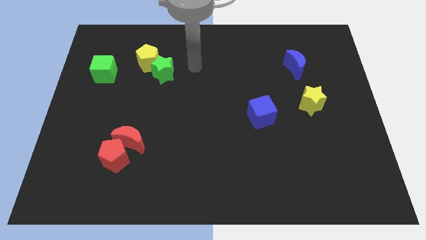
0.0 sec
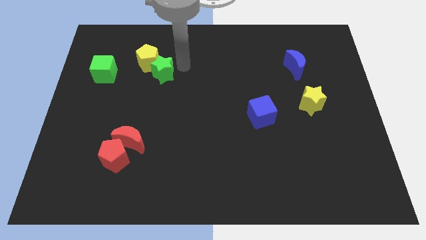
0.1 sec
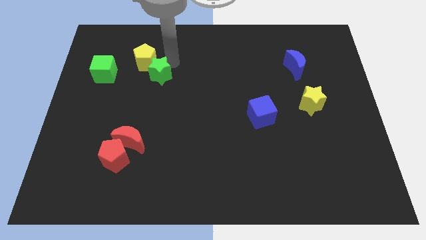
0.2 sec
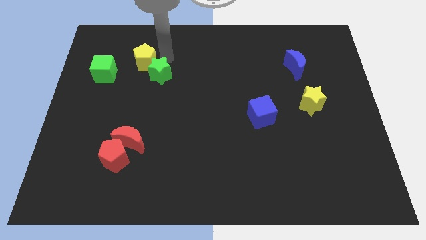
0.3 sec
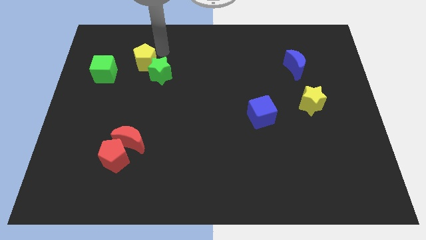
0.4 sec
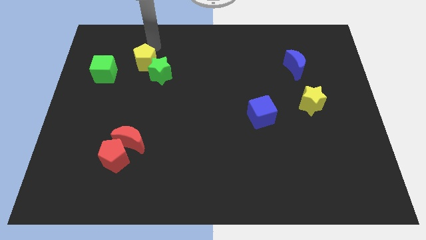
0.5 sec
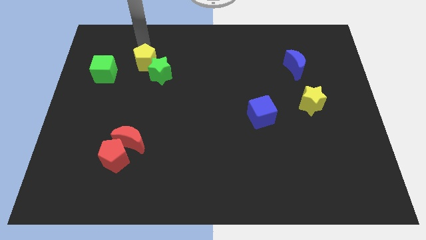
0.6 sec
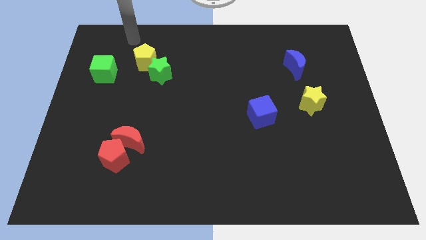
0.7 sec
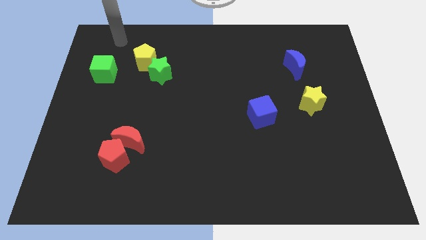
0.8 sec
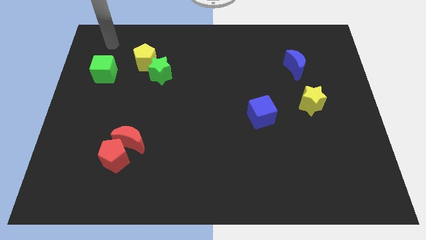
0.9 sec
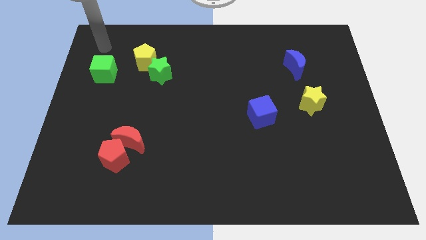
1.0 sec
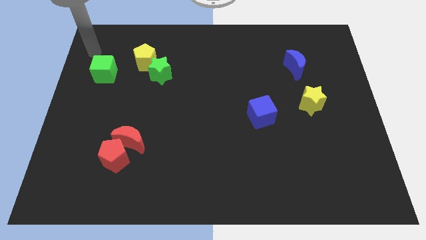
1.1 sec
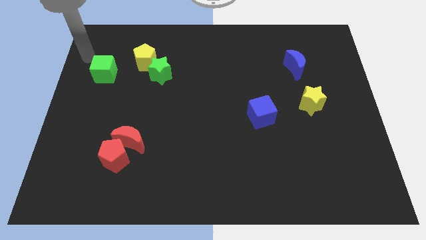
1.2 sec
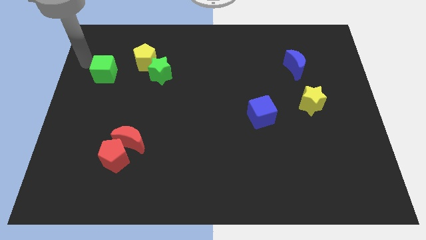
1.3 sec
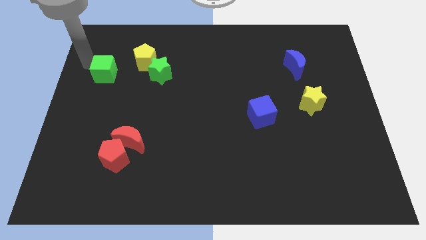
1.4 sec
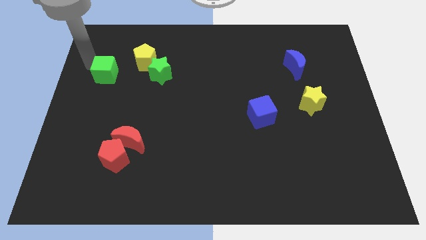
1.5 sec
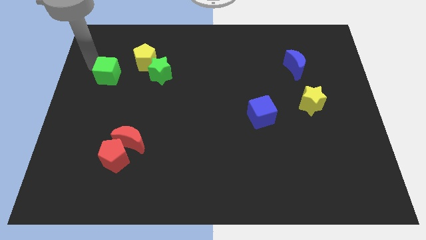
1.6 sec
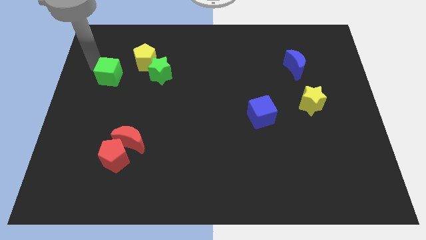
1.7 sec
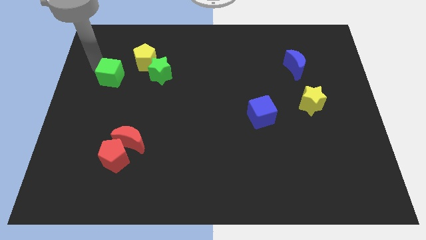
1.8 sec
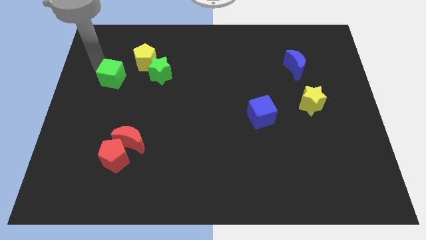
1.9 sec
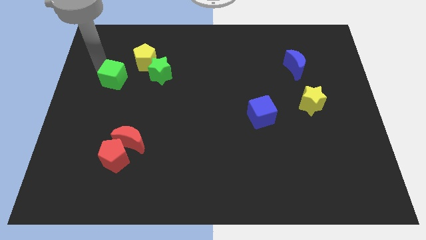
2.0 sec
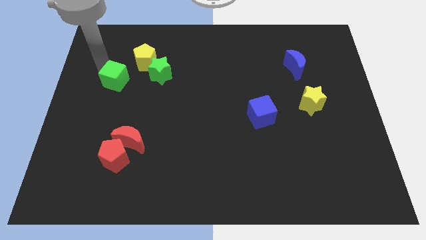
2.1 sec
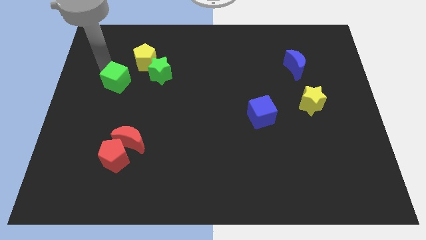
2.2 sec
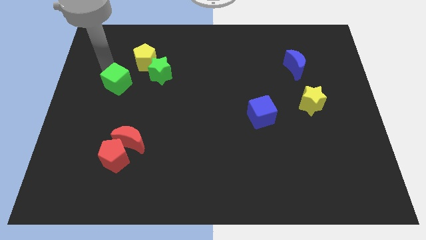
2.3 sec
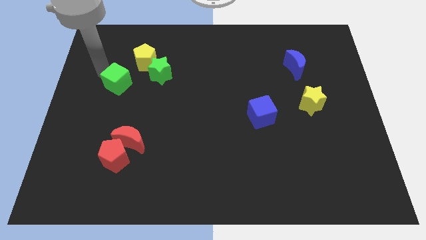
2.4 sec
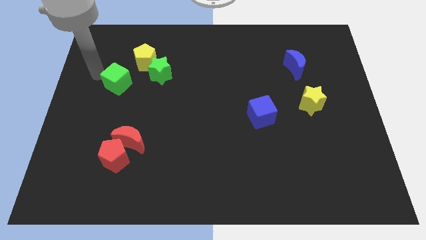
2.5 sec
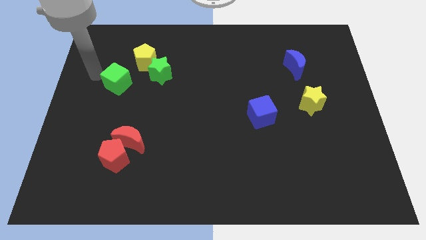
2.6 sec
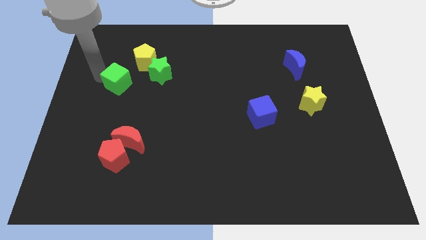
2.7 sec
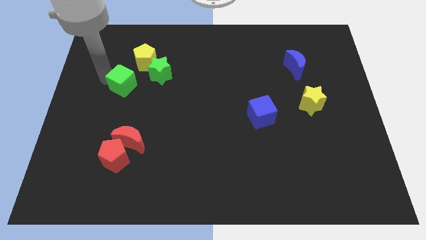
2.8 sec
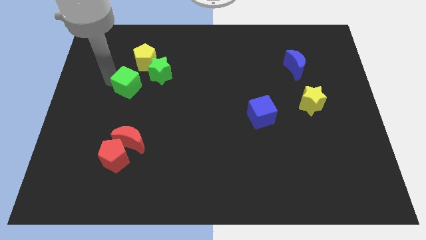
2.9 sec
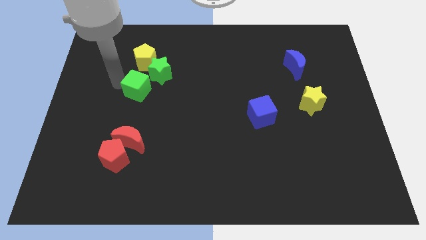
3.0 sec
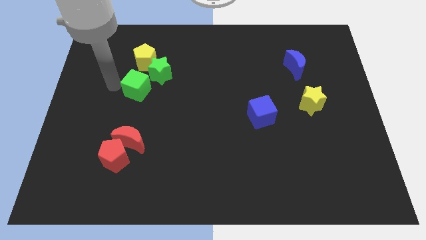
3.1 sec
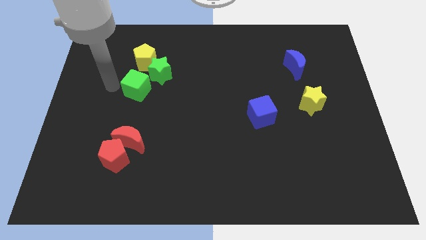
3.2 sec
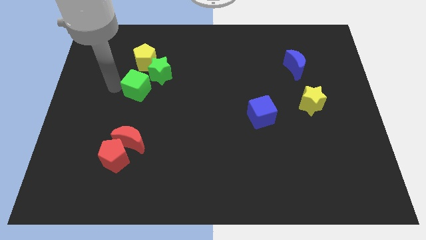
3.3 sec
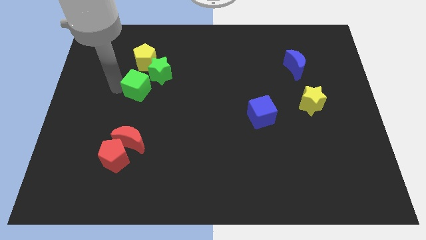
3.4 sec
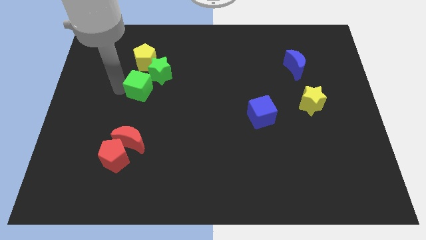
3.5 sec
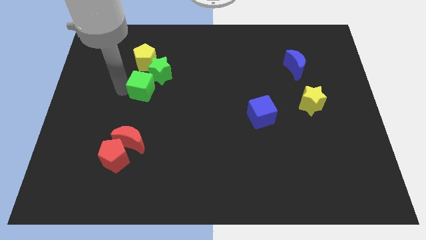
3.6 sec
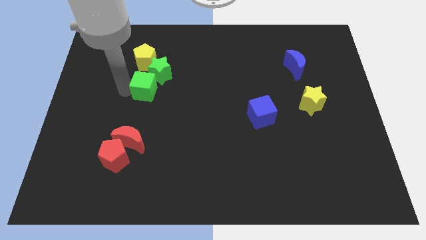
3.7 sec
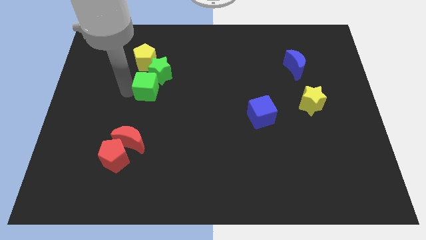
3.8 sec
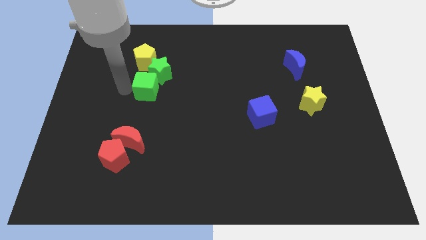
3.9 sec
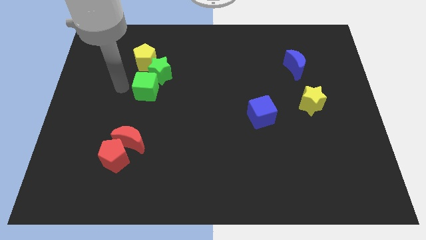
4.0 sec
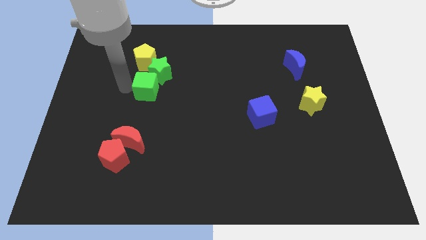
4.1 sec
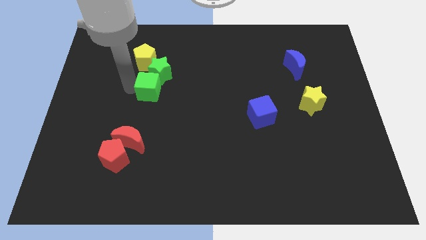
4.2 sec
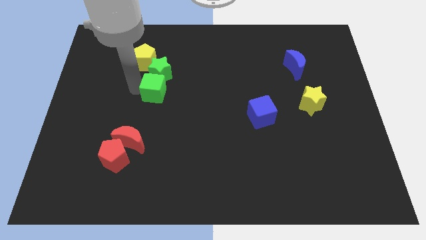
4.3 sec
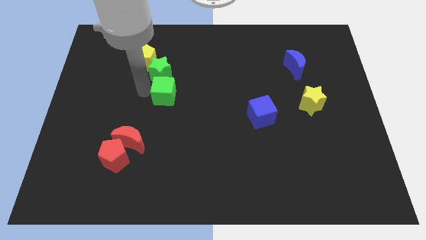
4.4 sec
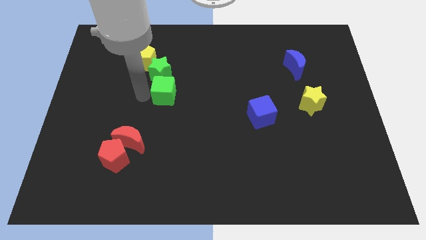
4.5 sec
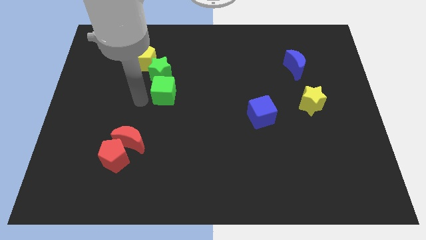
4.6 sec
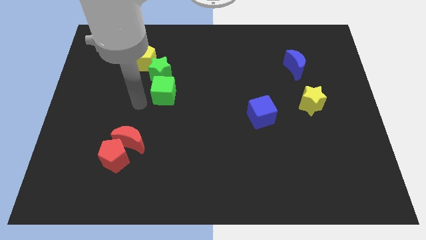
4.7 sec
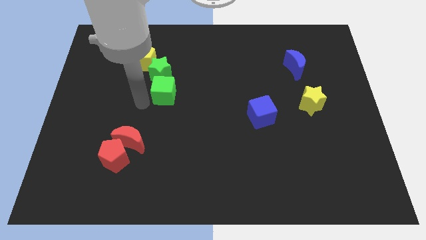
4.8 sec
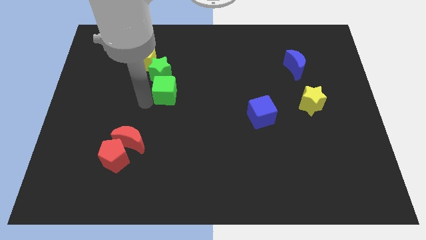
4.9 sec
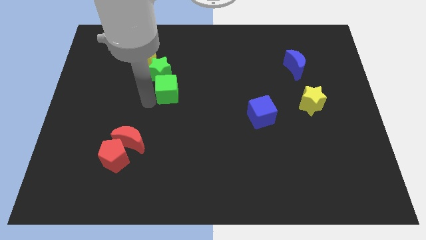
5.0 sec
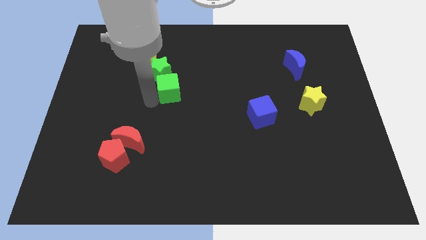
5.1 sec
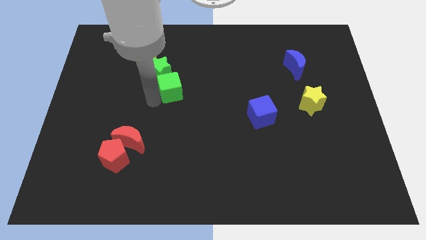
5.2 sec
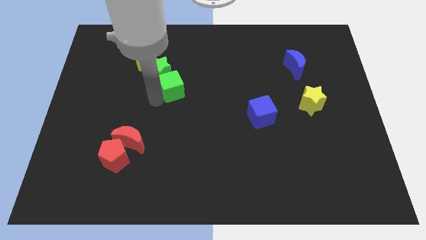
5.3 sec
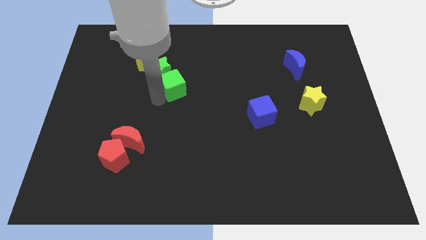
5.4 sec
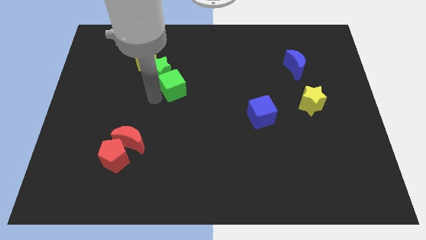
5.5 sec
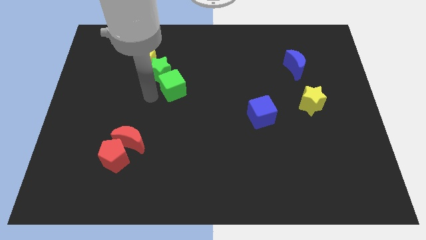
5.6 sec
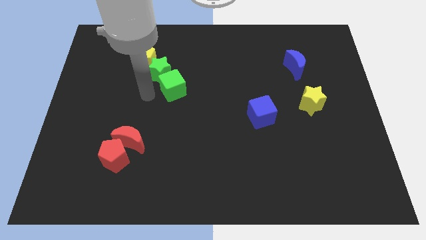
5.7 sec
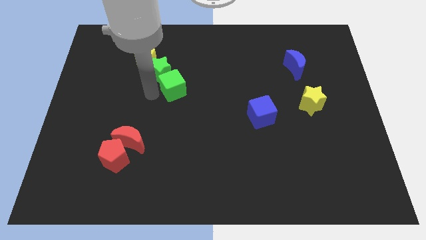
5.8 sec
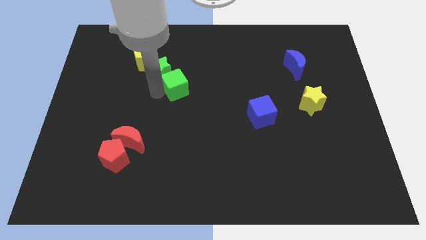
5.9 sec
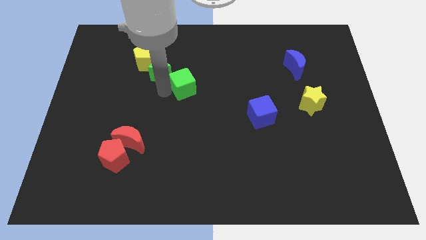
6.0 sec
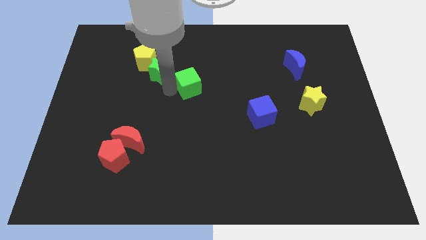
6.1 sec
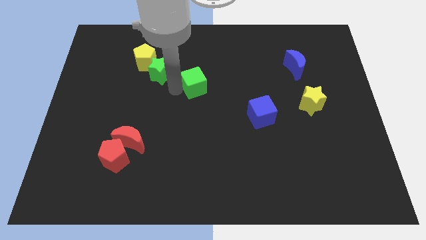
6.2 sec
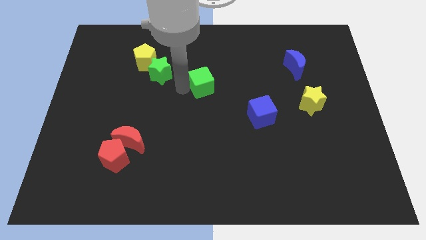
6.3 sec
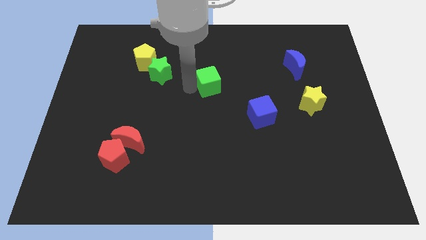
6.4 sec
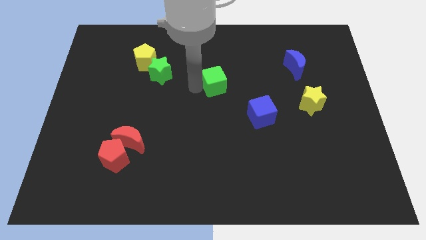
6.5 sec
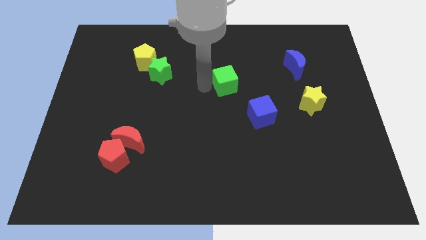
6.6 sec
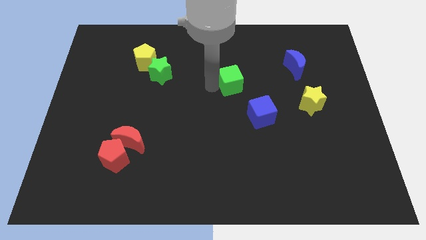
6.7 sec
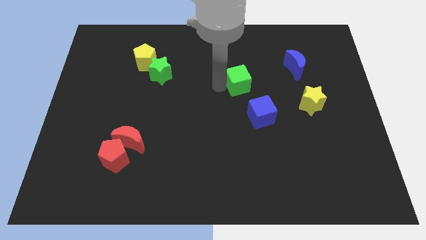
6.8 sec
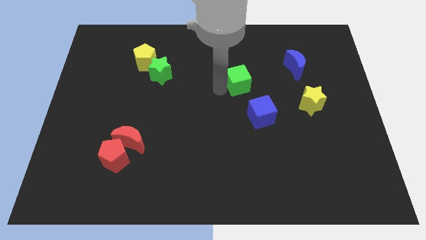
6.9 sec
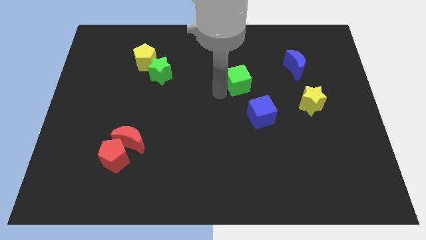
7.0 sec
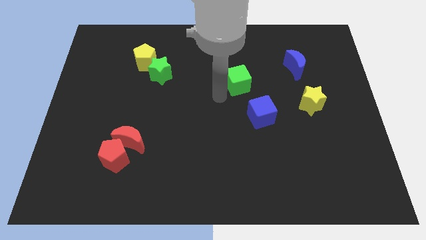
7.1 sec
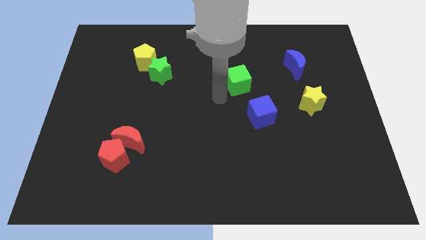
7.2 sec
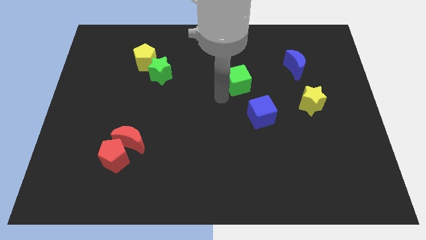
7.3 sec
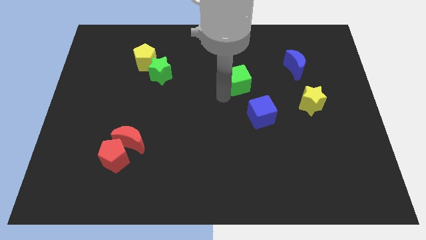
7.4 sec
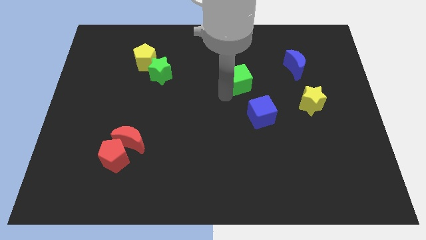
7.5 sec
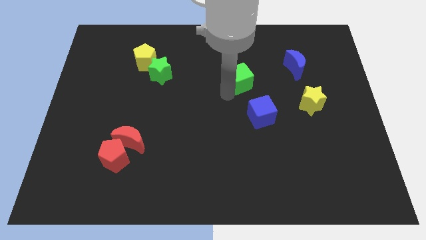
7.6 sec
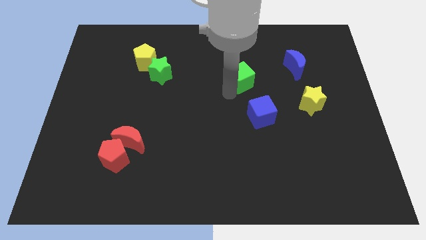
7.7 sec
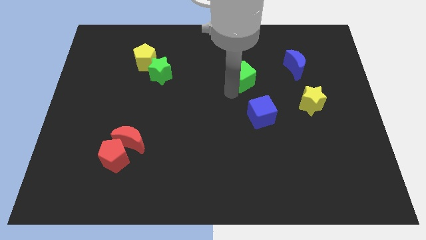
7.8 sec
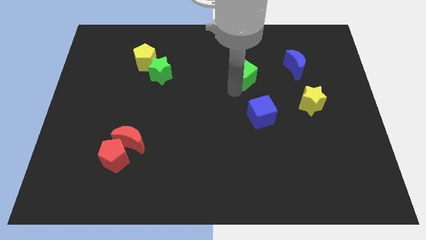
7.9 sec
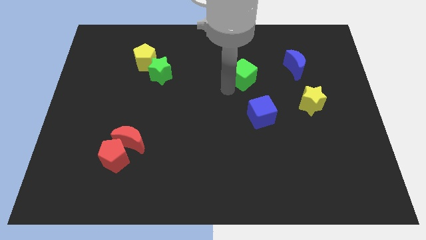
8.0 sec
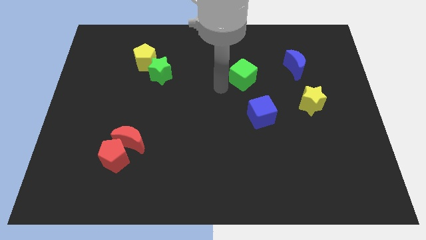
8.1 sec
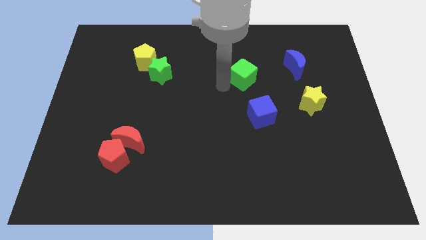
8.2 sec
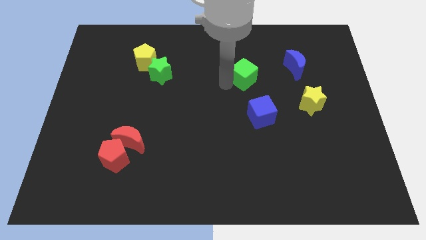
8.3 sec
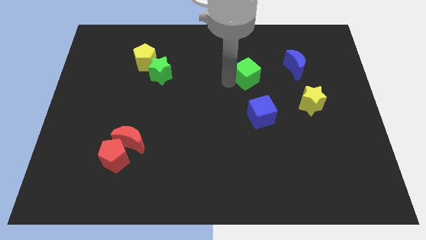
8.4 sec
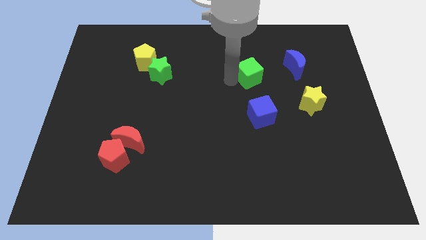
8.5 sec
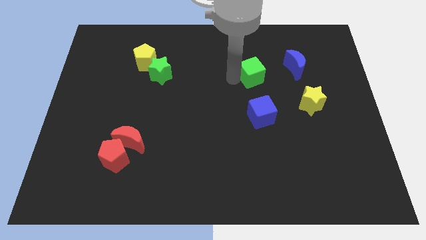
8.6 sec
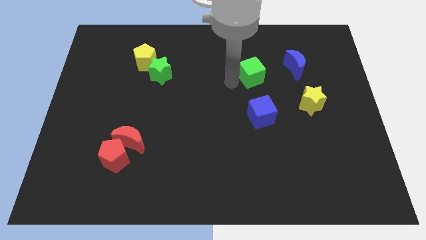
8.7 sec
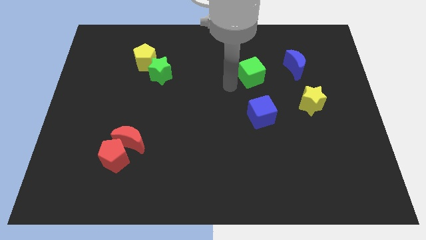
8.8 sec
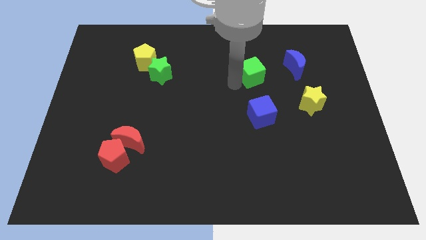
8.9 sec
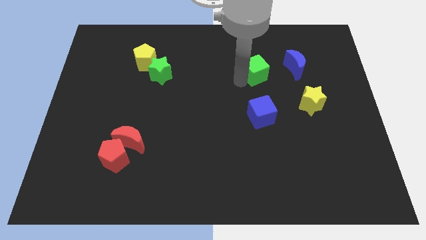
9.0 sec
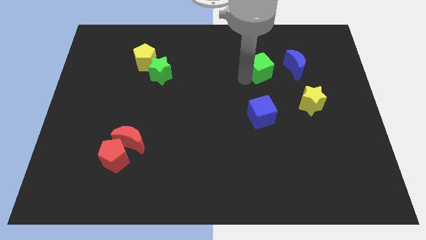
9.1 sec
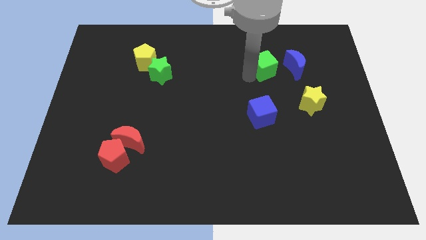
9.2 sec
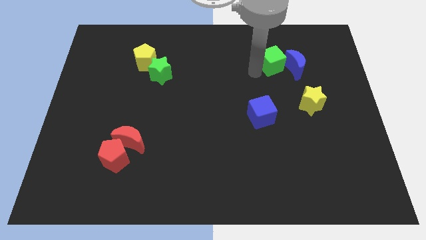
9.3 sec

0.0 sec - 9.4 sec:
push the green cube to the blue moon
